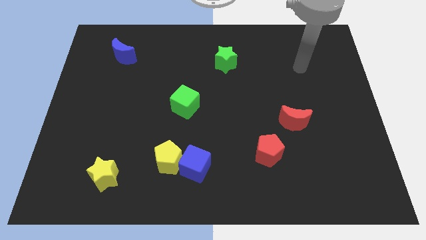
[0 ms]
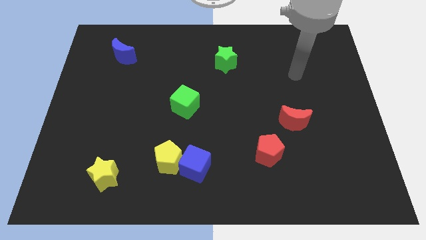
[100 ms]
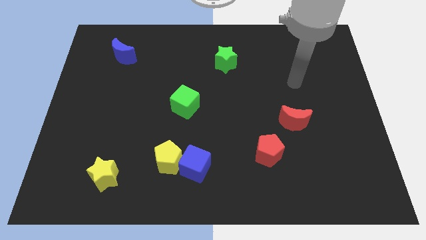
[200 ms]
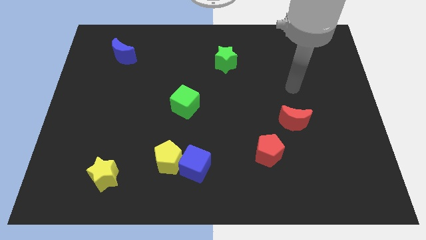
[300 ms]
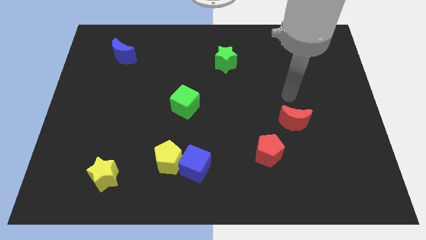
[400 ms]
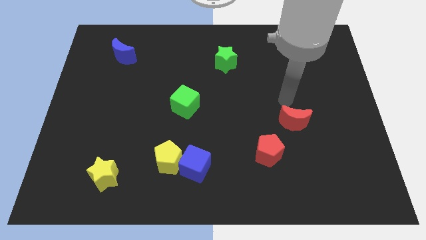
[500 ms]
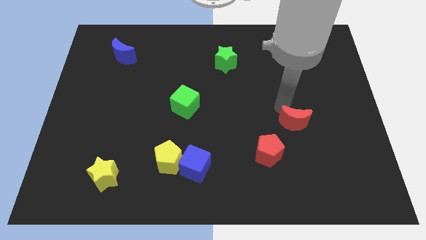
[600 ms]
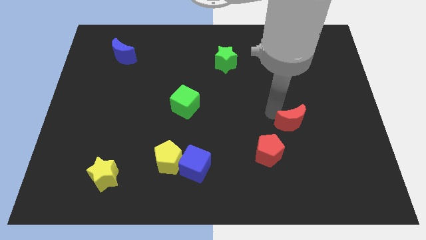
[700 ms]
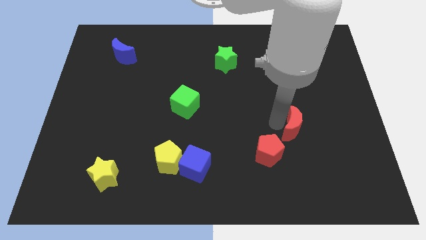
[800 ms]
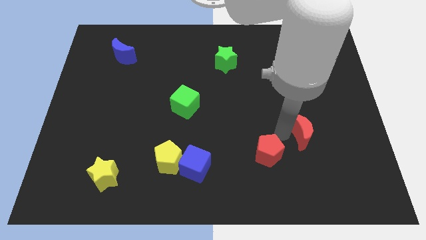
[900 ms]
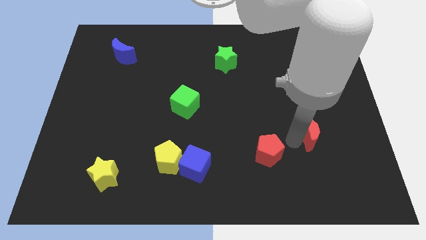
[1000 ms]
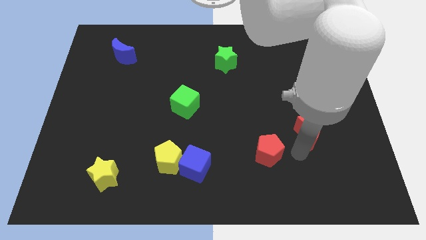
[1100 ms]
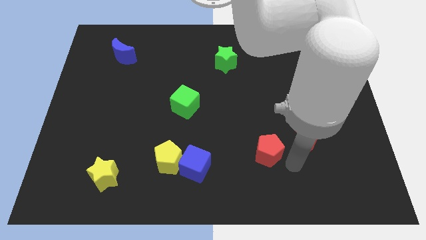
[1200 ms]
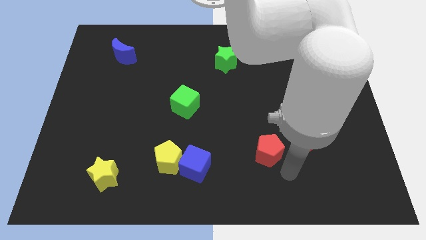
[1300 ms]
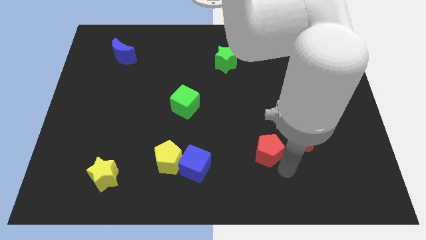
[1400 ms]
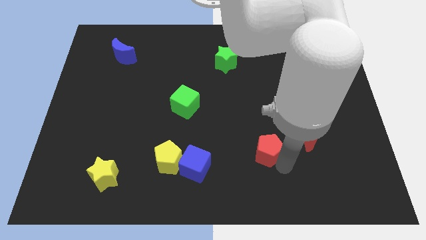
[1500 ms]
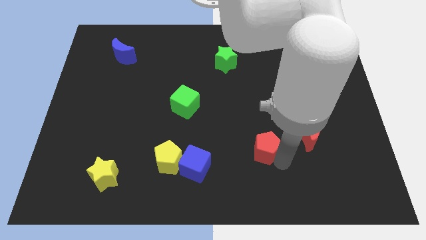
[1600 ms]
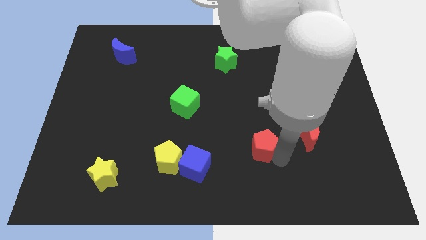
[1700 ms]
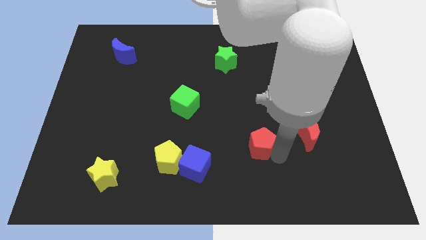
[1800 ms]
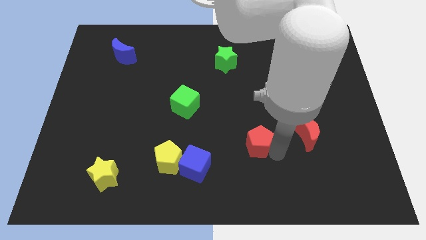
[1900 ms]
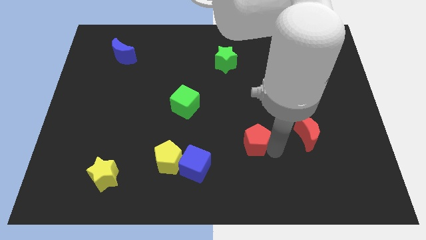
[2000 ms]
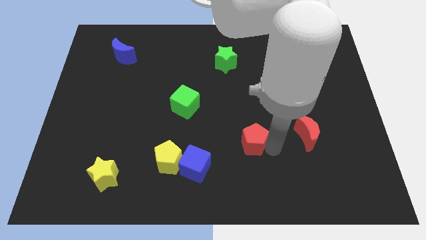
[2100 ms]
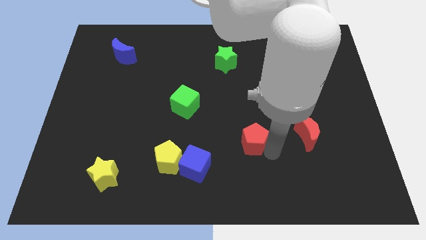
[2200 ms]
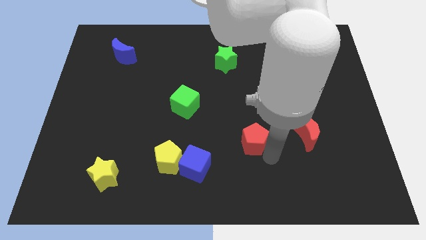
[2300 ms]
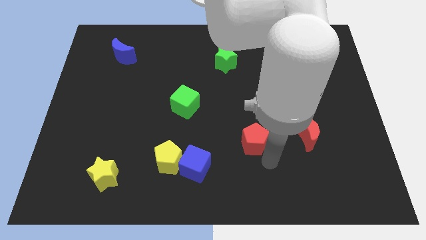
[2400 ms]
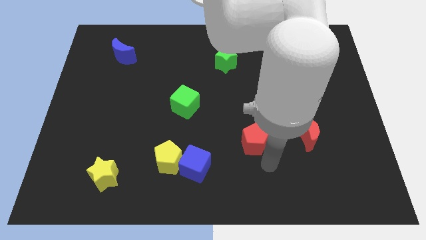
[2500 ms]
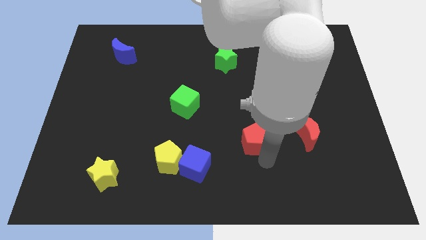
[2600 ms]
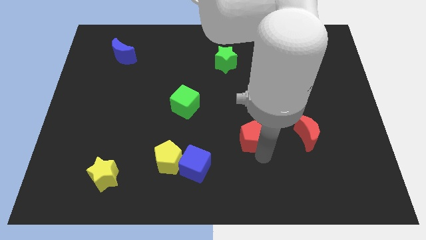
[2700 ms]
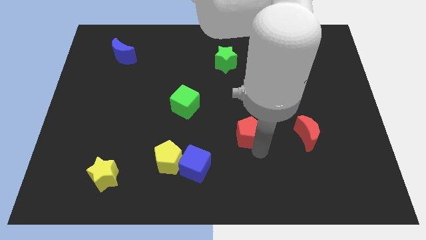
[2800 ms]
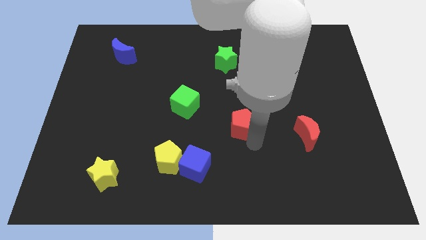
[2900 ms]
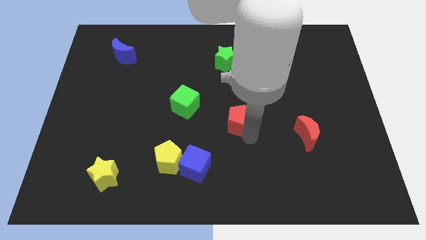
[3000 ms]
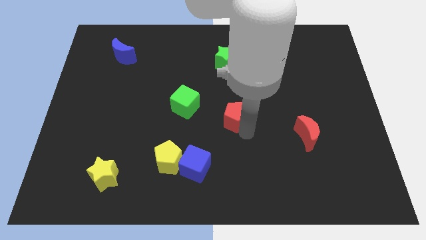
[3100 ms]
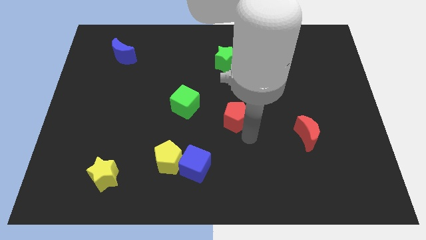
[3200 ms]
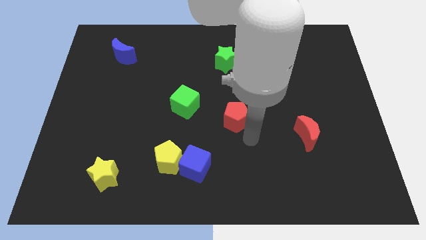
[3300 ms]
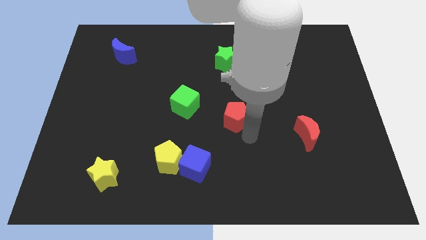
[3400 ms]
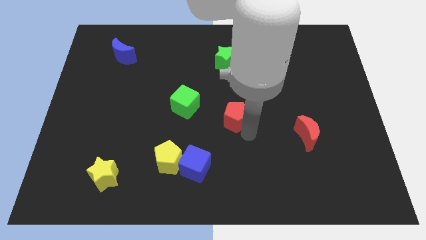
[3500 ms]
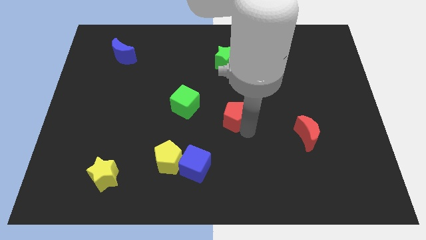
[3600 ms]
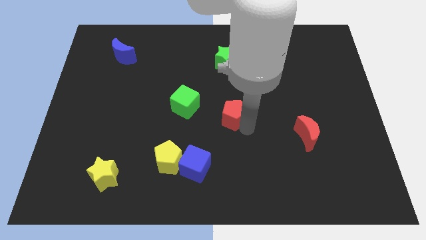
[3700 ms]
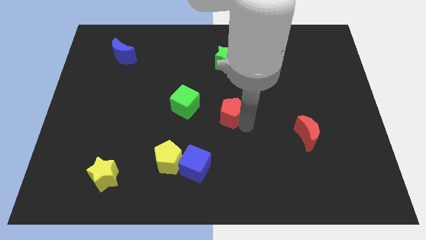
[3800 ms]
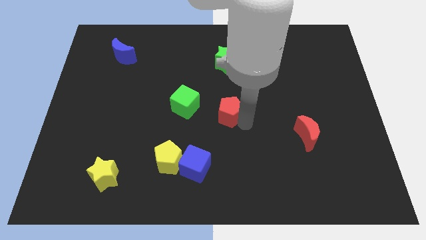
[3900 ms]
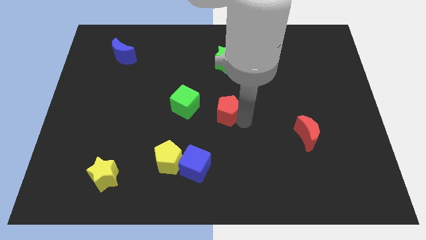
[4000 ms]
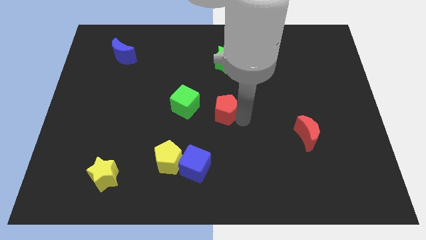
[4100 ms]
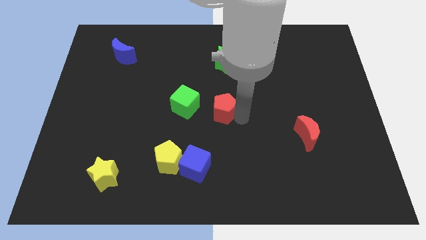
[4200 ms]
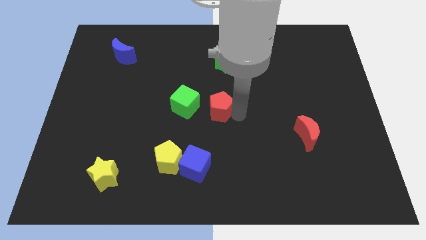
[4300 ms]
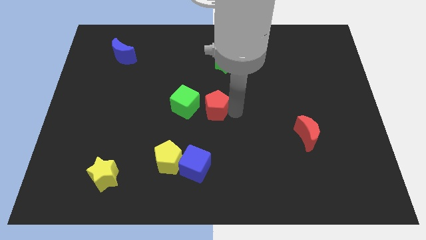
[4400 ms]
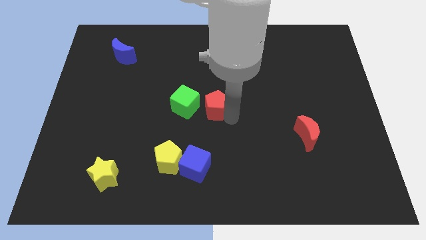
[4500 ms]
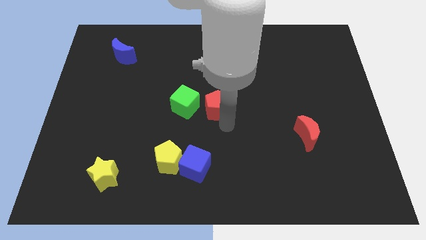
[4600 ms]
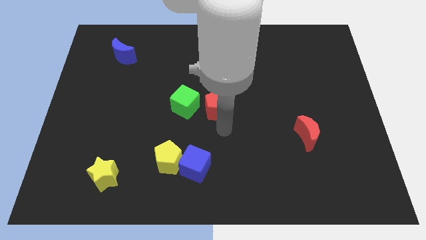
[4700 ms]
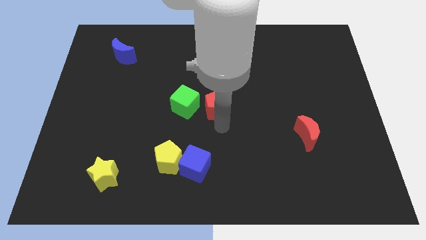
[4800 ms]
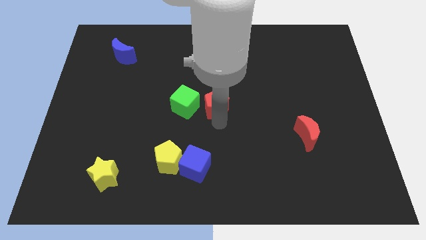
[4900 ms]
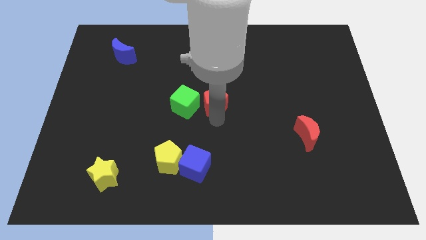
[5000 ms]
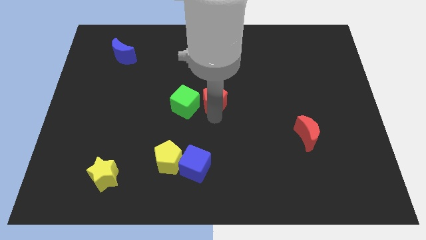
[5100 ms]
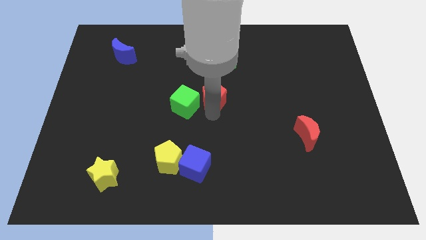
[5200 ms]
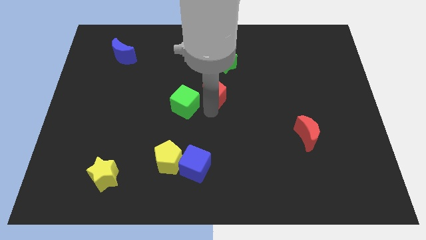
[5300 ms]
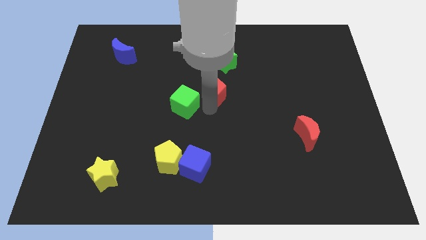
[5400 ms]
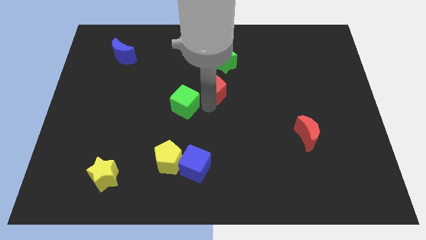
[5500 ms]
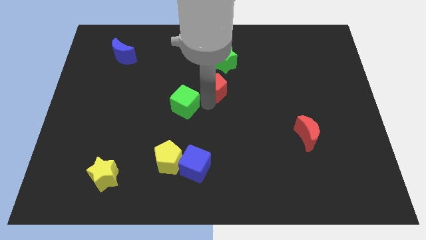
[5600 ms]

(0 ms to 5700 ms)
slide the red pentagon diagonally down and to the left of the green star

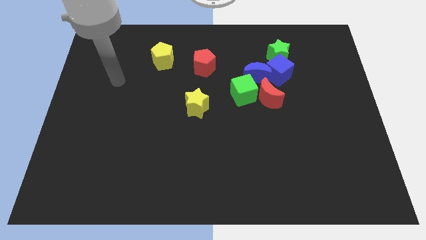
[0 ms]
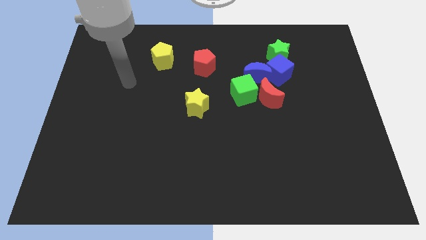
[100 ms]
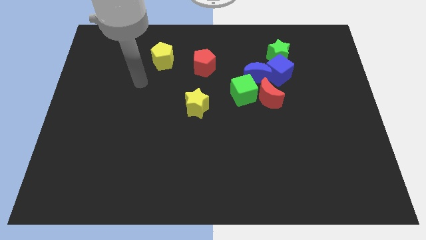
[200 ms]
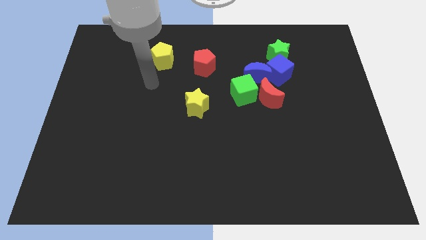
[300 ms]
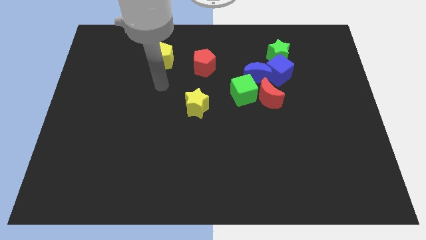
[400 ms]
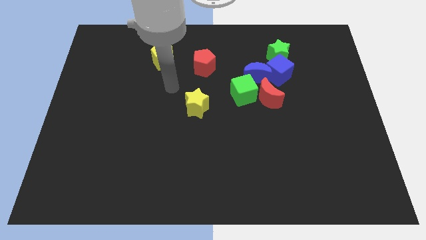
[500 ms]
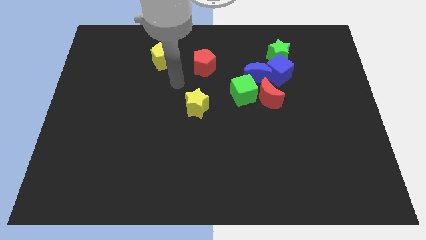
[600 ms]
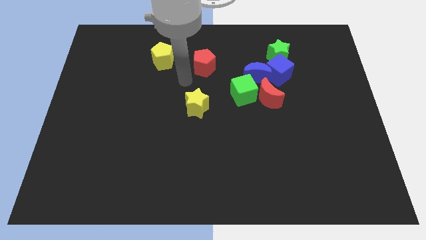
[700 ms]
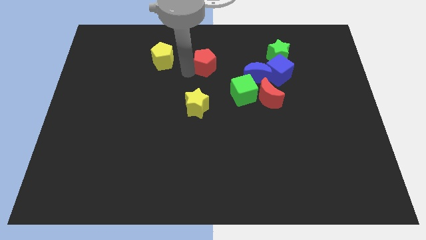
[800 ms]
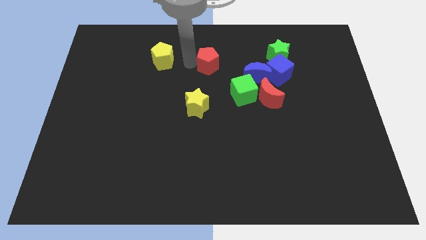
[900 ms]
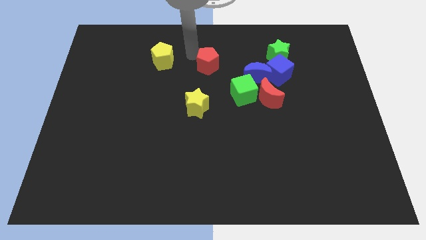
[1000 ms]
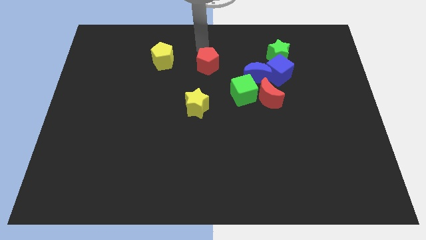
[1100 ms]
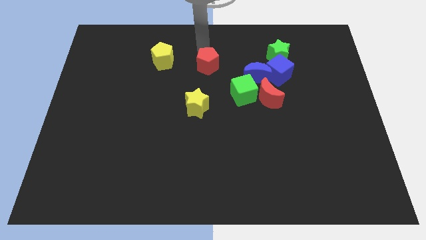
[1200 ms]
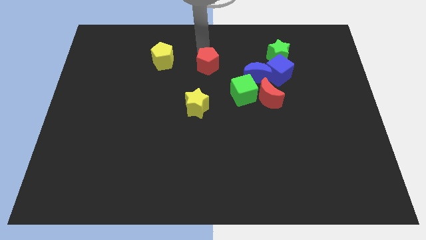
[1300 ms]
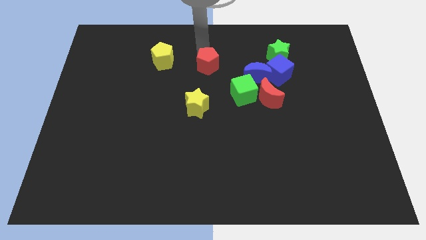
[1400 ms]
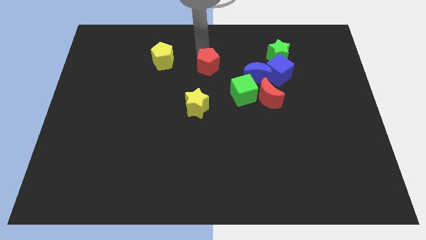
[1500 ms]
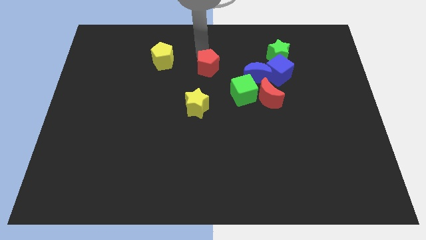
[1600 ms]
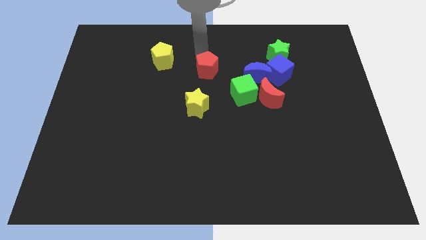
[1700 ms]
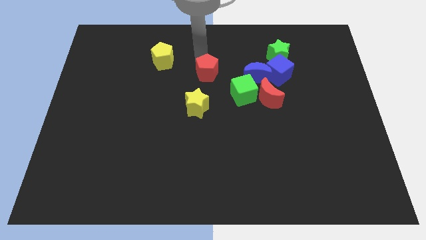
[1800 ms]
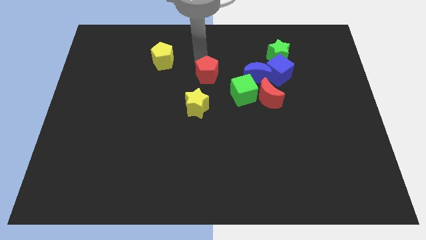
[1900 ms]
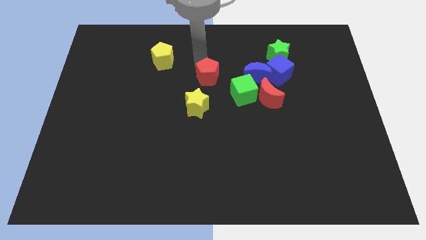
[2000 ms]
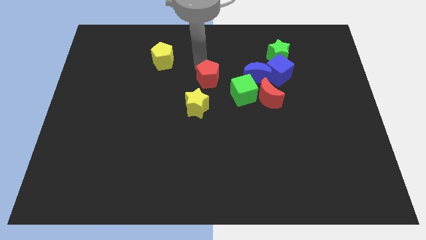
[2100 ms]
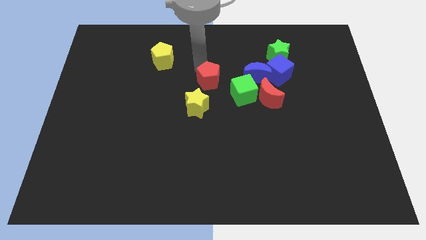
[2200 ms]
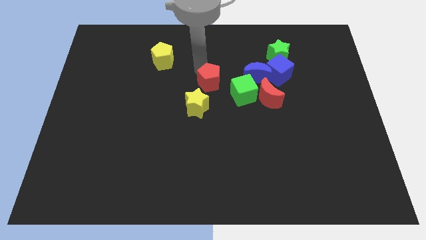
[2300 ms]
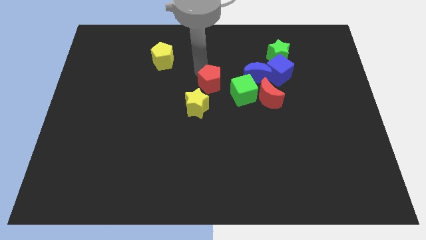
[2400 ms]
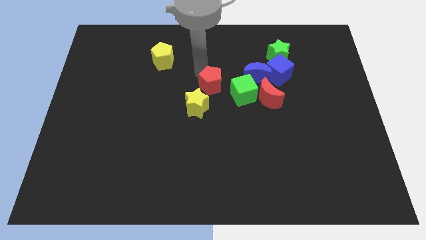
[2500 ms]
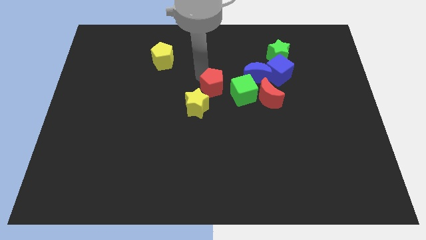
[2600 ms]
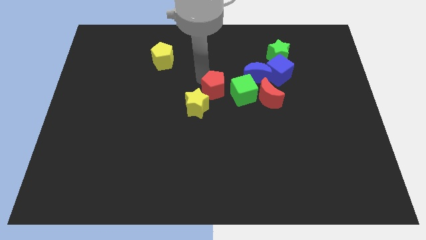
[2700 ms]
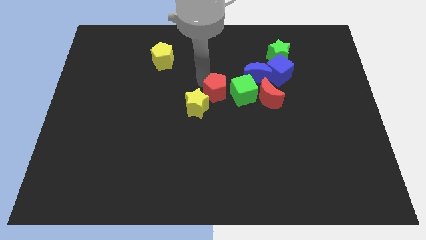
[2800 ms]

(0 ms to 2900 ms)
move the red pentagon right of the yellow star
